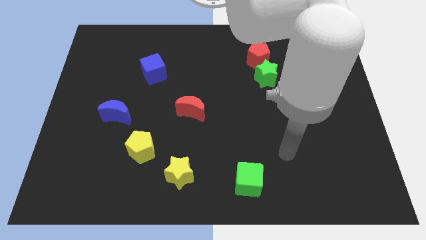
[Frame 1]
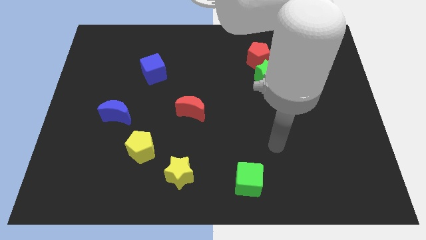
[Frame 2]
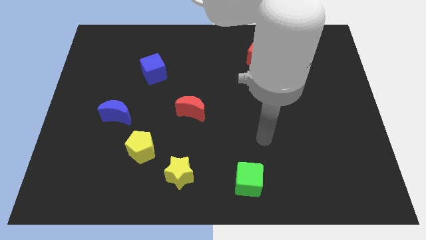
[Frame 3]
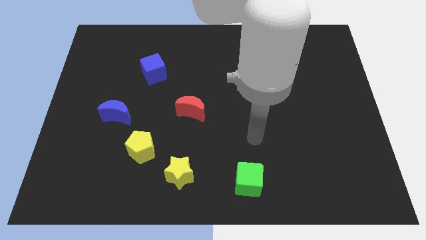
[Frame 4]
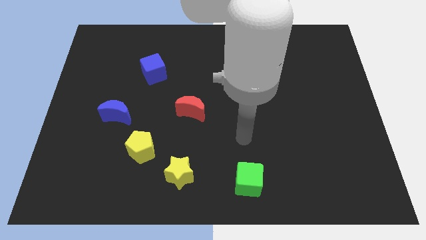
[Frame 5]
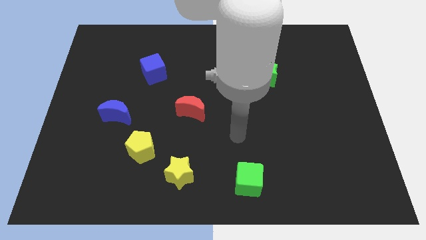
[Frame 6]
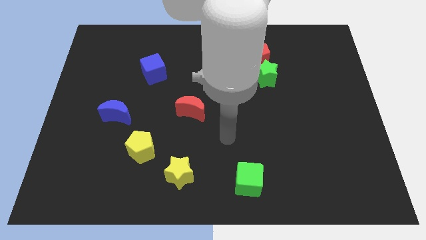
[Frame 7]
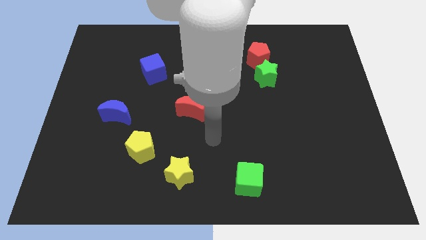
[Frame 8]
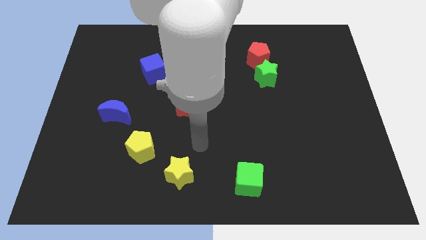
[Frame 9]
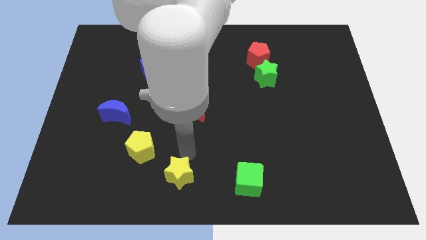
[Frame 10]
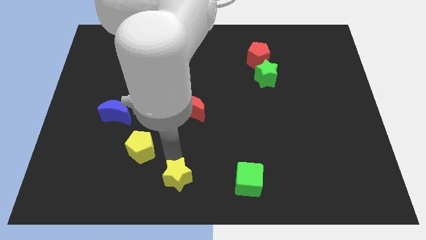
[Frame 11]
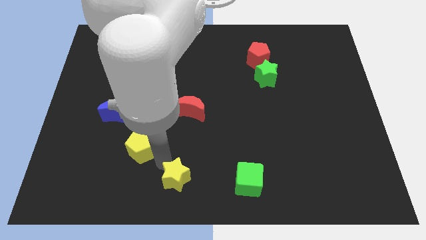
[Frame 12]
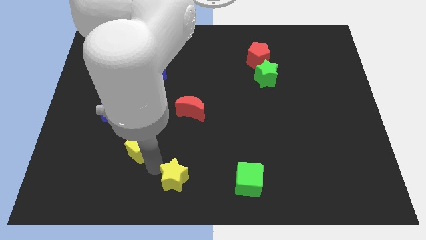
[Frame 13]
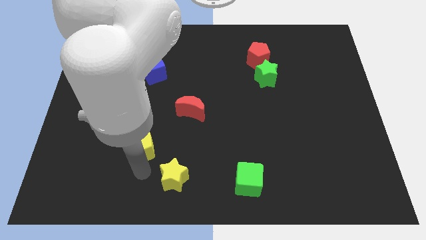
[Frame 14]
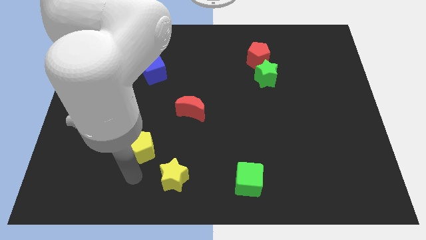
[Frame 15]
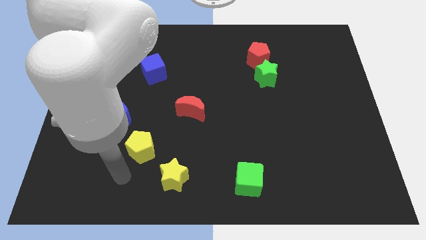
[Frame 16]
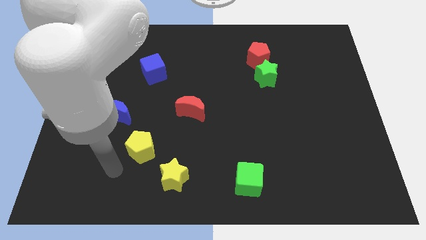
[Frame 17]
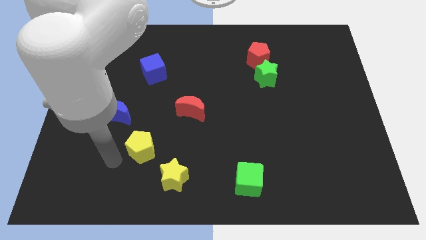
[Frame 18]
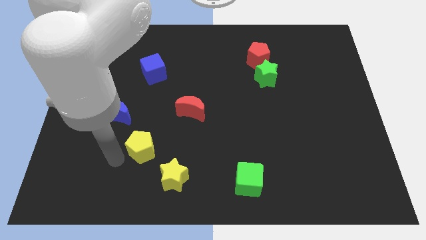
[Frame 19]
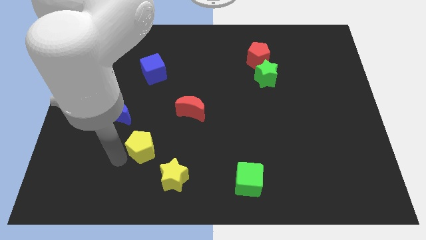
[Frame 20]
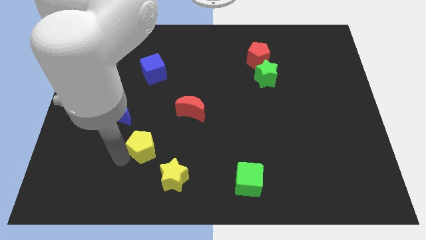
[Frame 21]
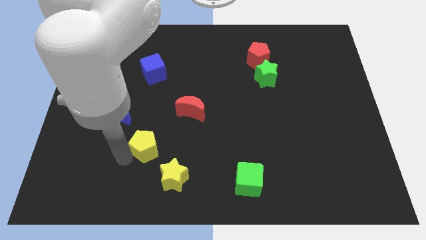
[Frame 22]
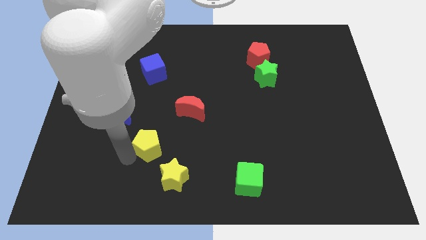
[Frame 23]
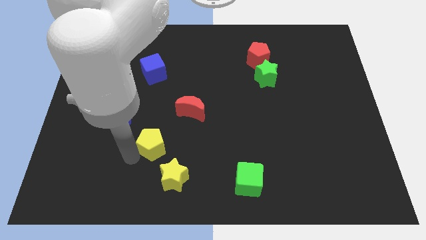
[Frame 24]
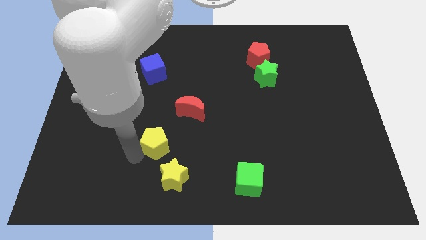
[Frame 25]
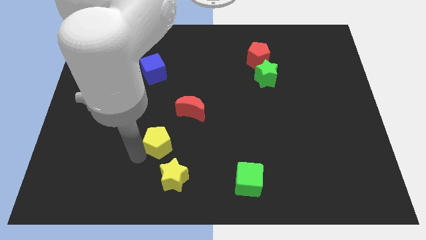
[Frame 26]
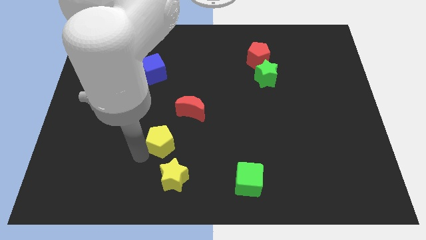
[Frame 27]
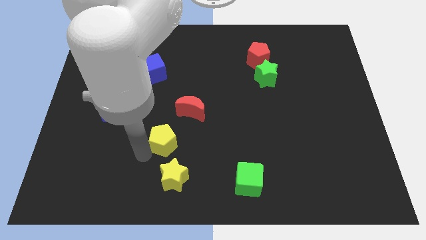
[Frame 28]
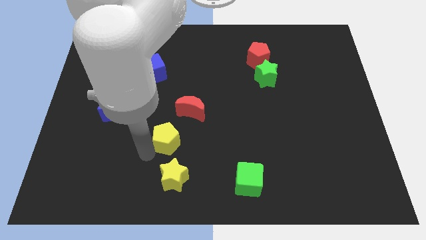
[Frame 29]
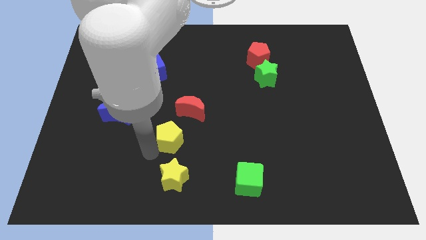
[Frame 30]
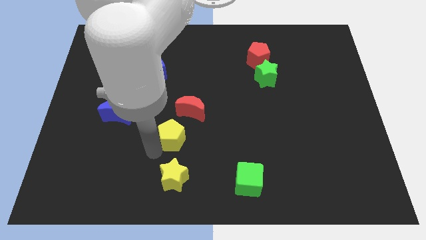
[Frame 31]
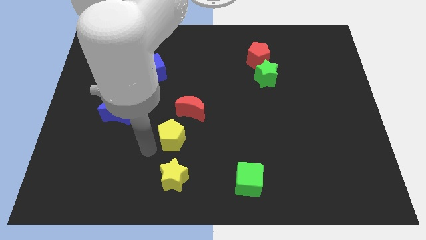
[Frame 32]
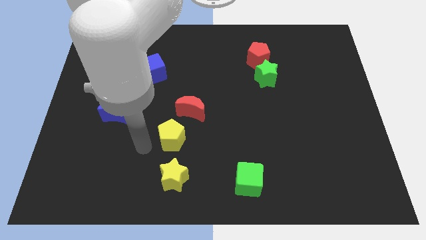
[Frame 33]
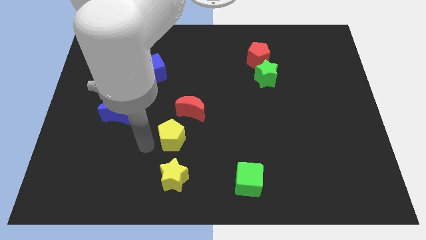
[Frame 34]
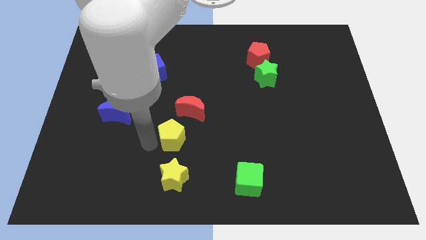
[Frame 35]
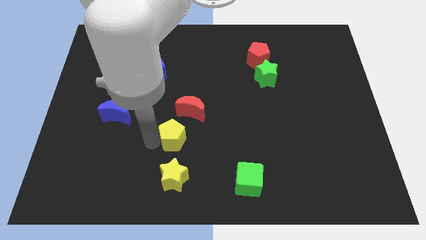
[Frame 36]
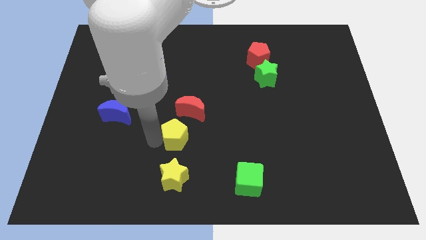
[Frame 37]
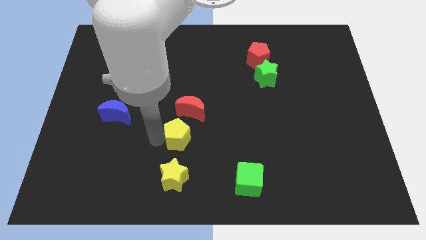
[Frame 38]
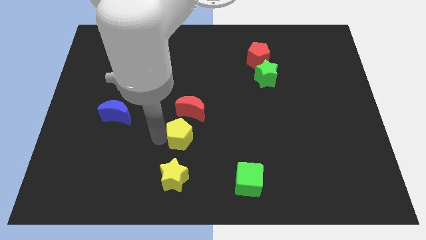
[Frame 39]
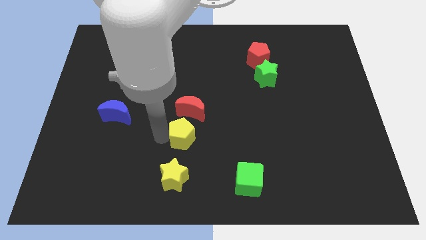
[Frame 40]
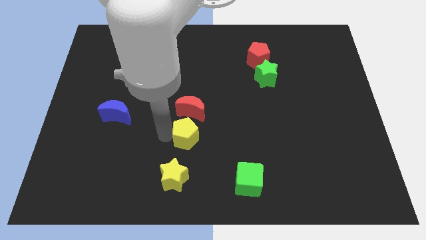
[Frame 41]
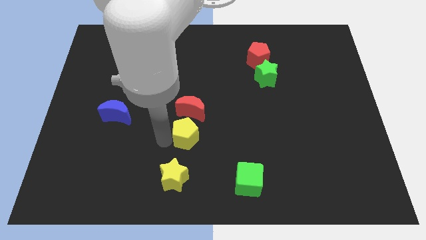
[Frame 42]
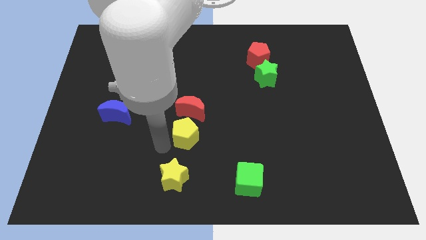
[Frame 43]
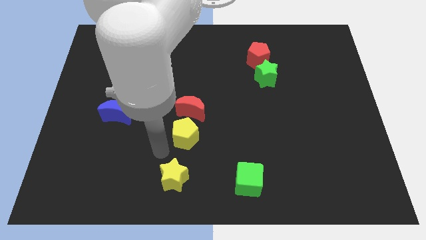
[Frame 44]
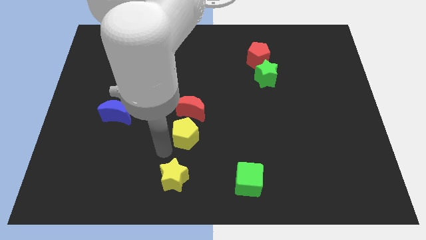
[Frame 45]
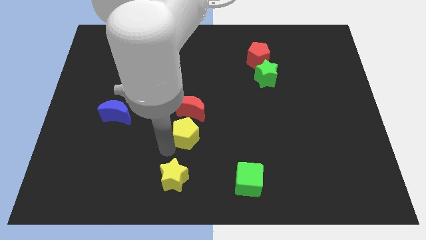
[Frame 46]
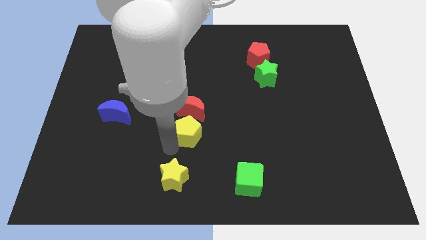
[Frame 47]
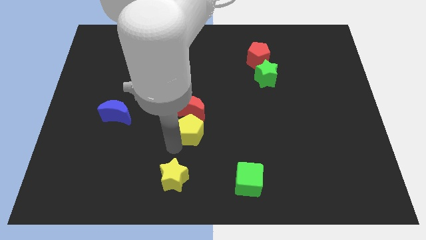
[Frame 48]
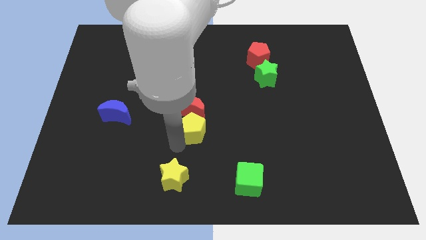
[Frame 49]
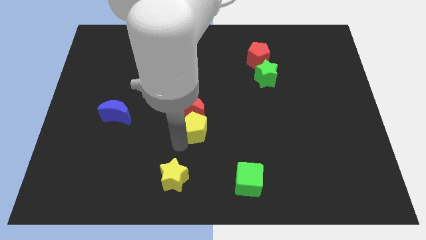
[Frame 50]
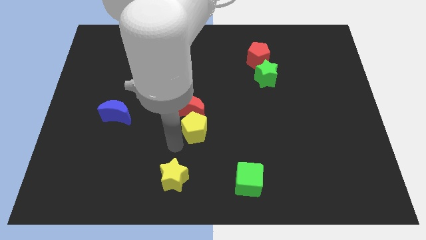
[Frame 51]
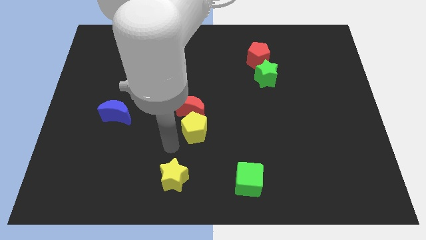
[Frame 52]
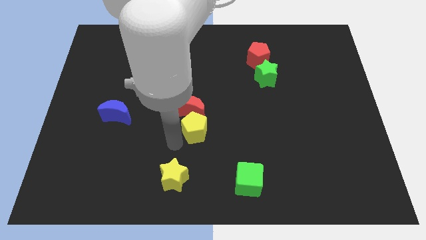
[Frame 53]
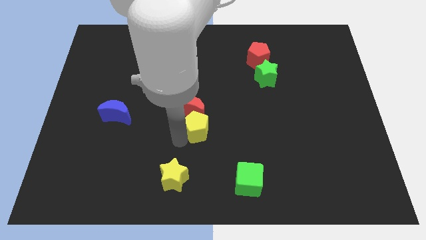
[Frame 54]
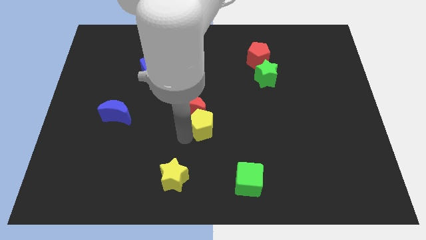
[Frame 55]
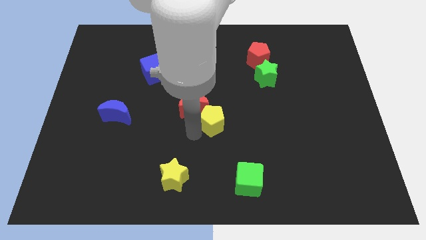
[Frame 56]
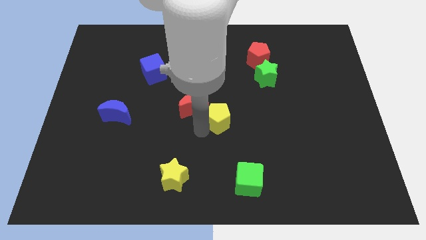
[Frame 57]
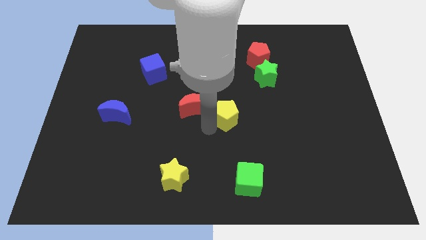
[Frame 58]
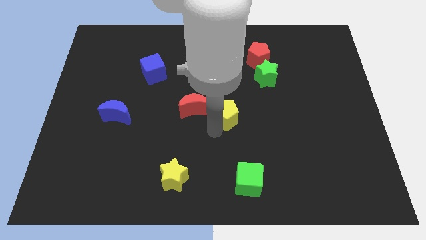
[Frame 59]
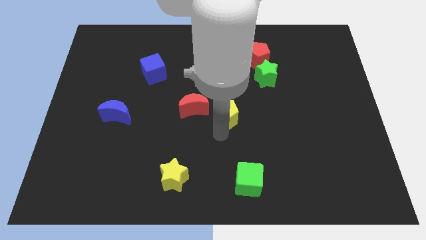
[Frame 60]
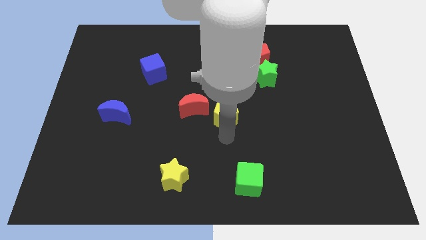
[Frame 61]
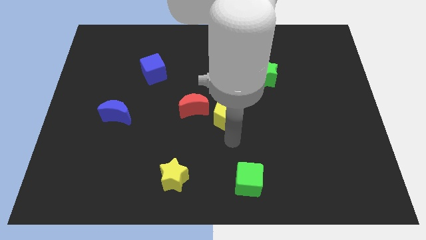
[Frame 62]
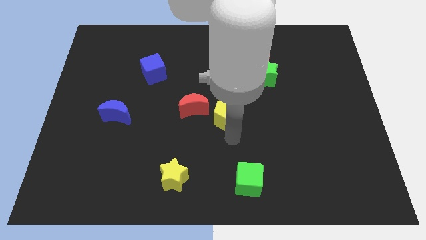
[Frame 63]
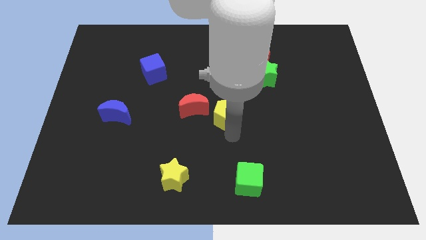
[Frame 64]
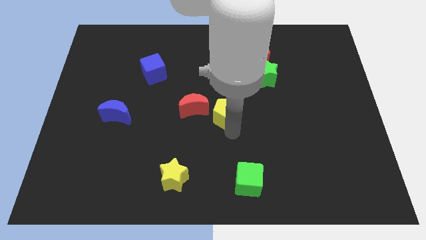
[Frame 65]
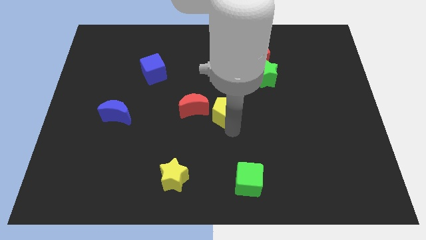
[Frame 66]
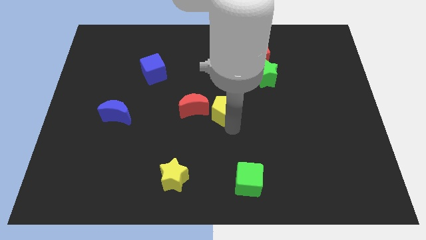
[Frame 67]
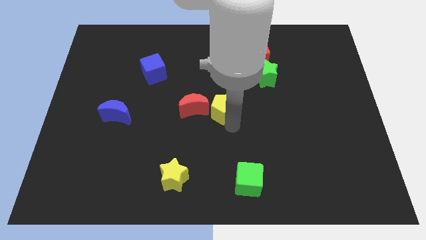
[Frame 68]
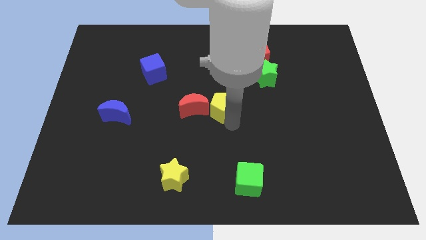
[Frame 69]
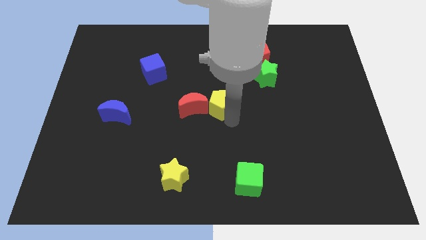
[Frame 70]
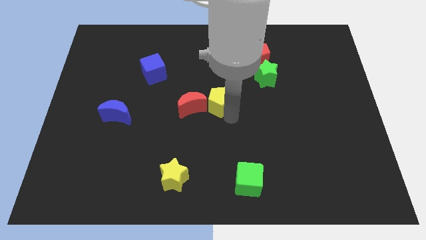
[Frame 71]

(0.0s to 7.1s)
move the yellow pentagon diagonally up and right

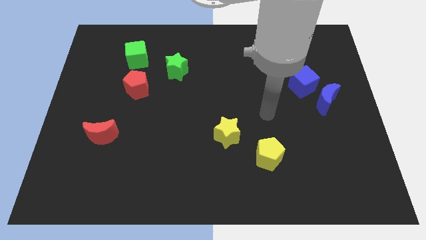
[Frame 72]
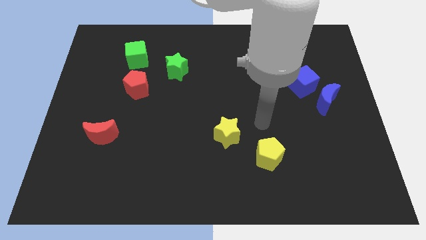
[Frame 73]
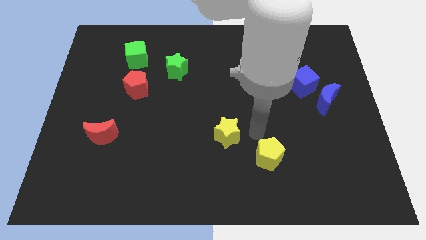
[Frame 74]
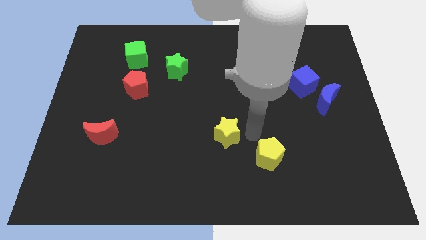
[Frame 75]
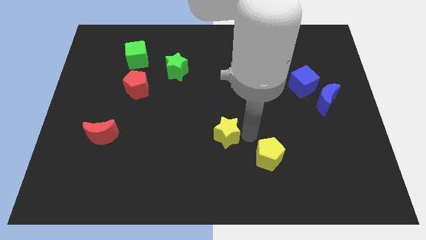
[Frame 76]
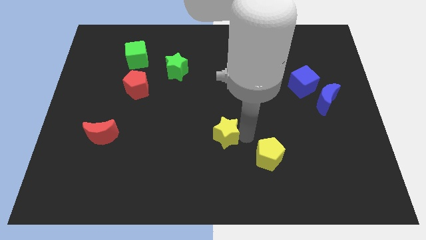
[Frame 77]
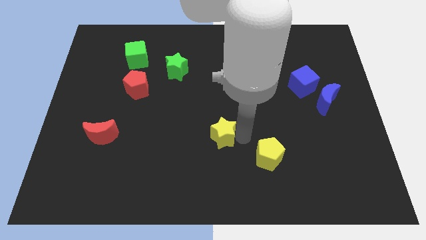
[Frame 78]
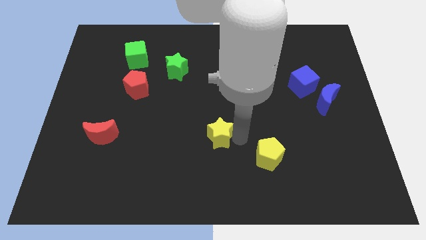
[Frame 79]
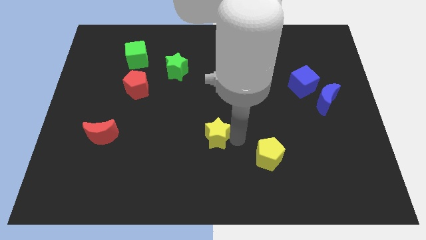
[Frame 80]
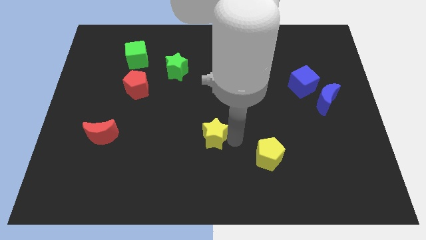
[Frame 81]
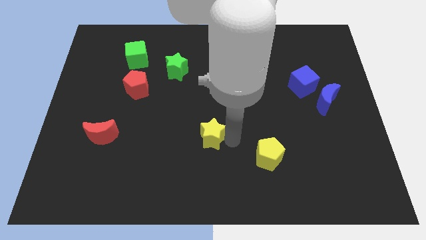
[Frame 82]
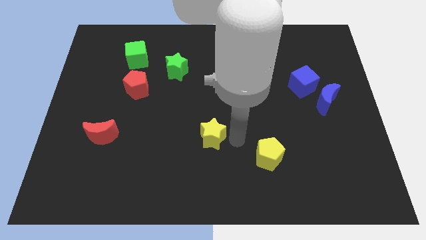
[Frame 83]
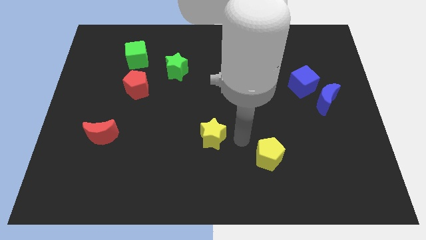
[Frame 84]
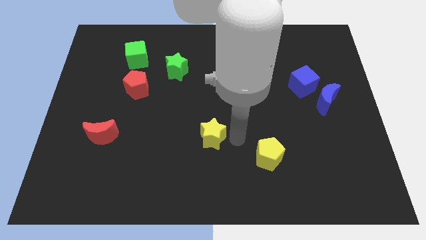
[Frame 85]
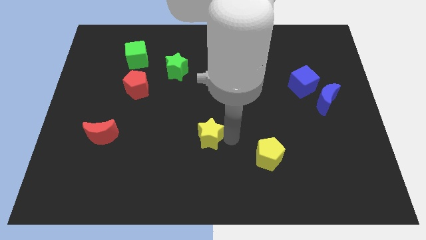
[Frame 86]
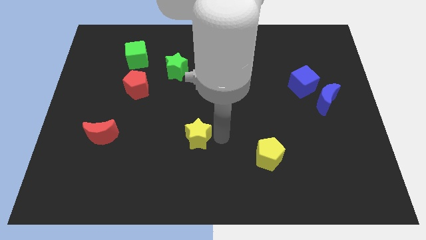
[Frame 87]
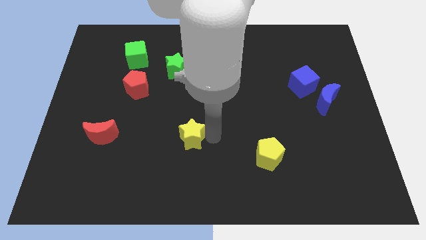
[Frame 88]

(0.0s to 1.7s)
slightly move the yellow star left

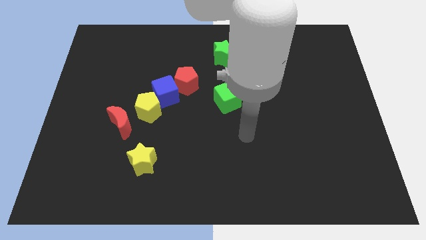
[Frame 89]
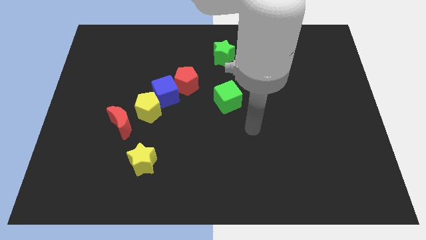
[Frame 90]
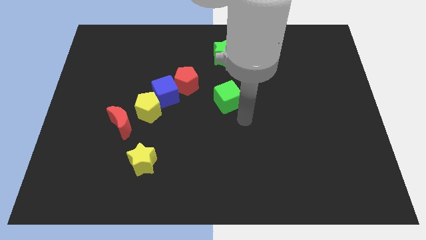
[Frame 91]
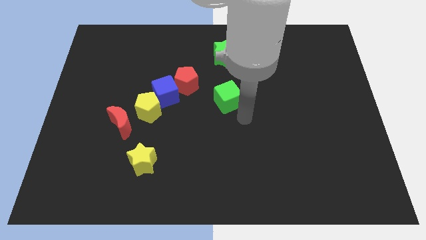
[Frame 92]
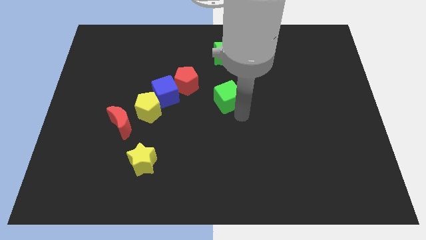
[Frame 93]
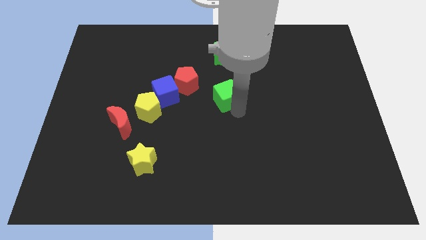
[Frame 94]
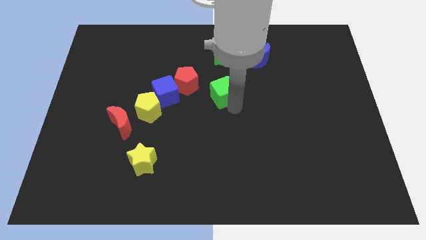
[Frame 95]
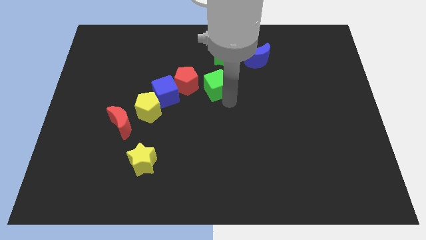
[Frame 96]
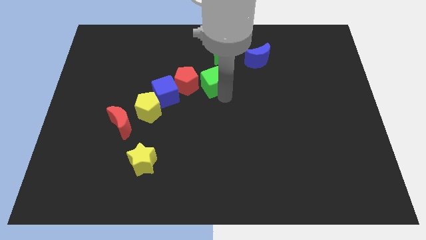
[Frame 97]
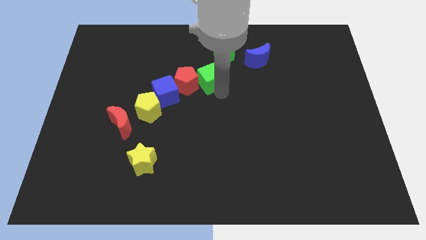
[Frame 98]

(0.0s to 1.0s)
slightly push the green cube diagonally upwards and left
